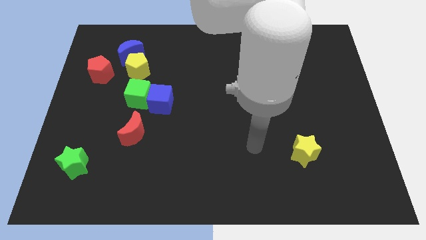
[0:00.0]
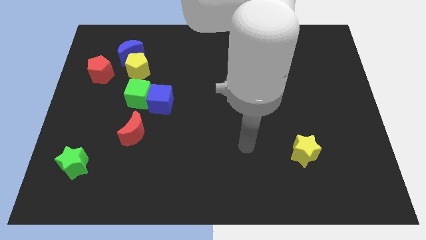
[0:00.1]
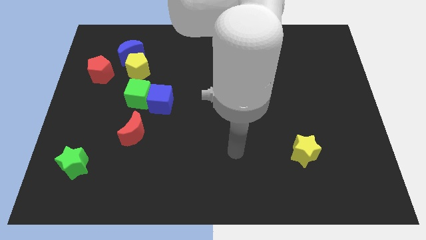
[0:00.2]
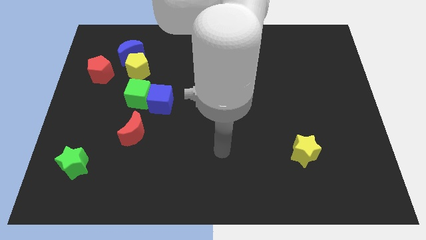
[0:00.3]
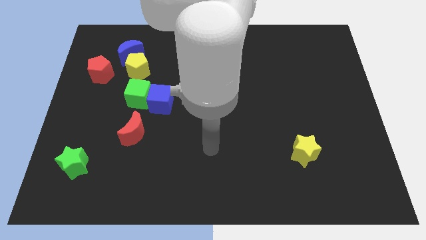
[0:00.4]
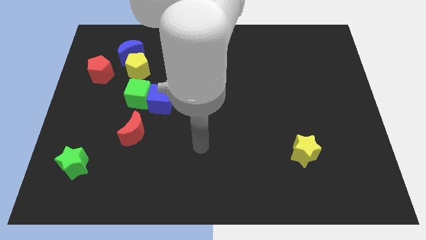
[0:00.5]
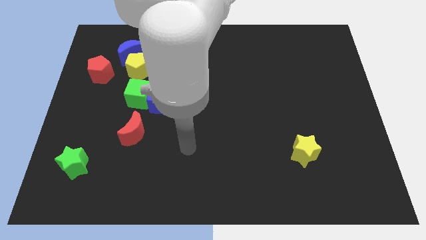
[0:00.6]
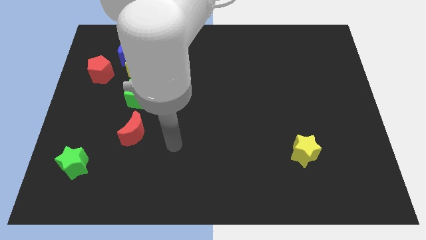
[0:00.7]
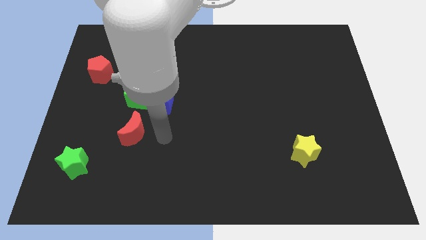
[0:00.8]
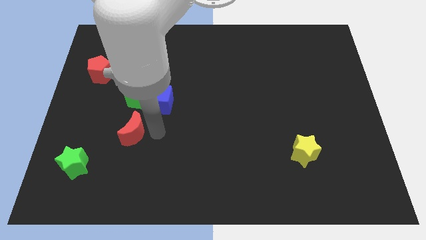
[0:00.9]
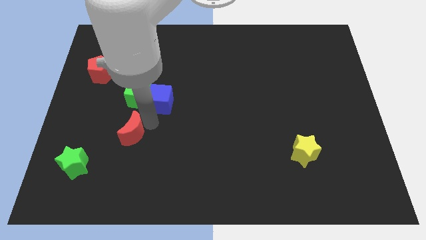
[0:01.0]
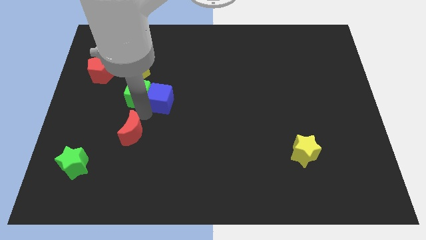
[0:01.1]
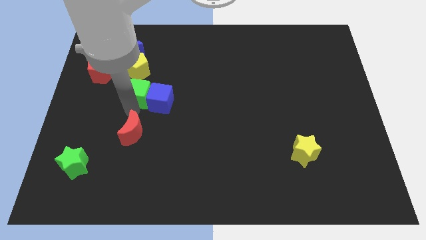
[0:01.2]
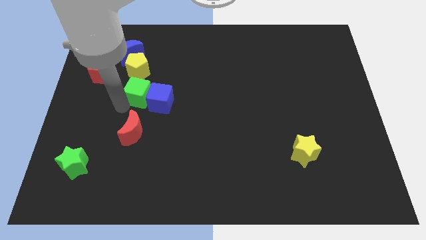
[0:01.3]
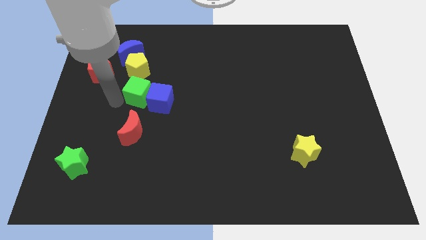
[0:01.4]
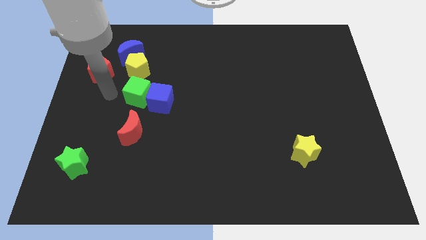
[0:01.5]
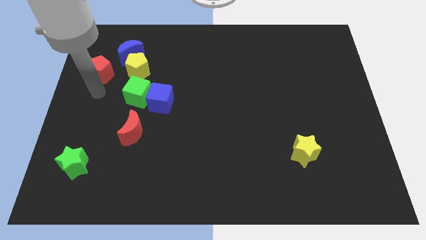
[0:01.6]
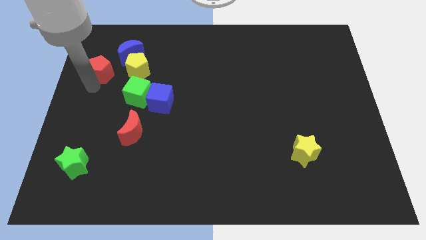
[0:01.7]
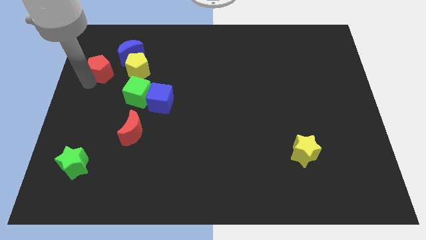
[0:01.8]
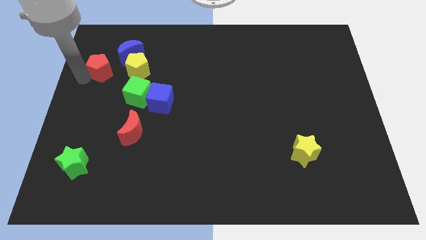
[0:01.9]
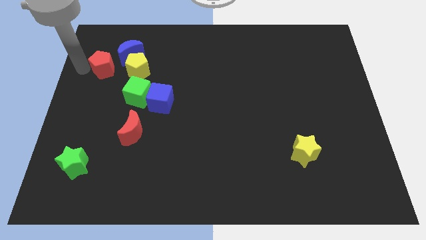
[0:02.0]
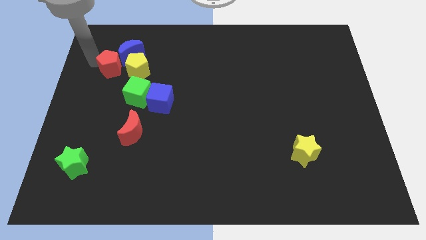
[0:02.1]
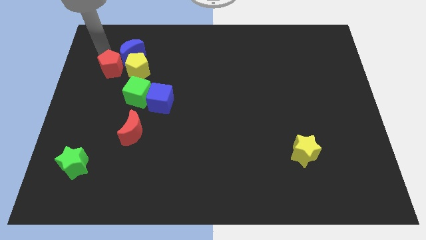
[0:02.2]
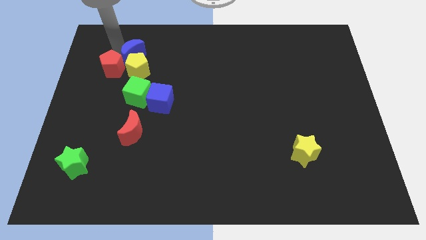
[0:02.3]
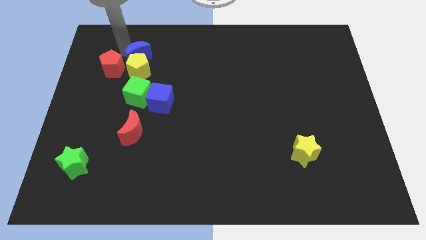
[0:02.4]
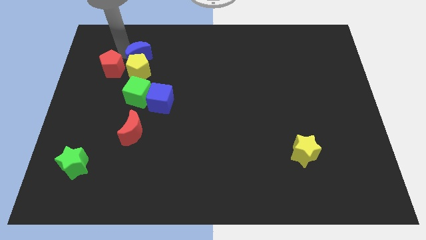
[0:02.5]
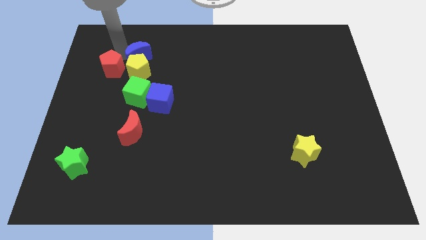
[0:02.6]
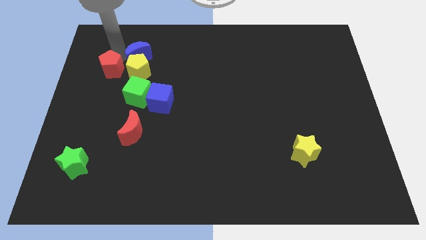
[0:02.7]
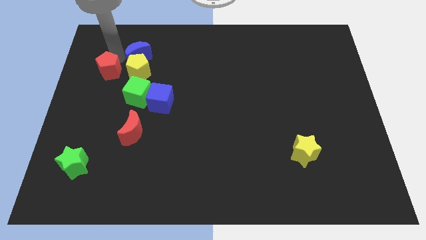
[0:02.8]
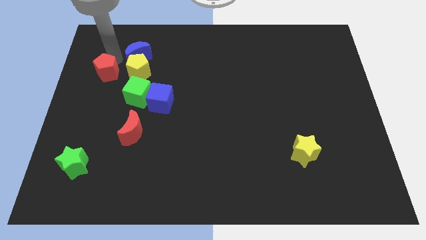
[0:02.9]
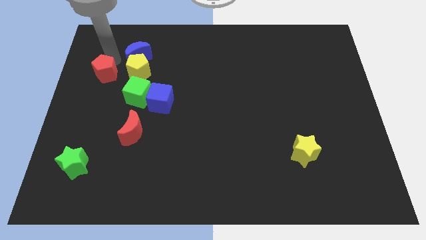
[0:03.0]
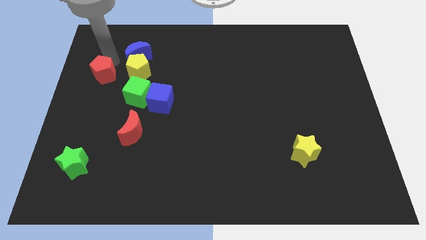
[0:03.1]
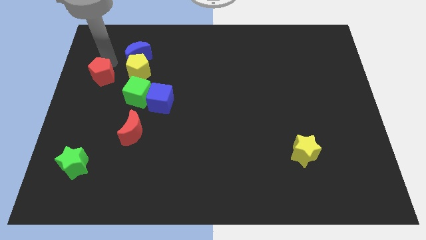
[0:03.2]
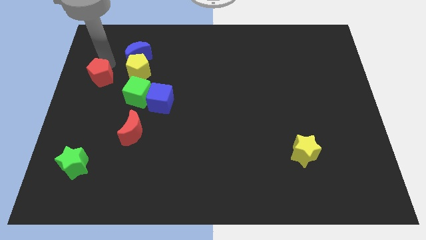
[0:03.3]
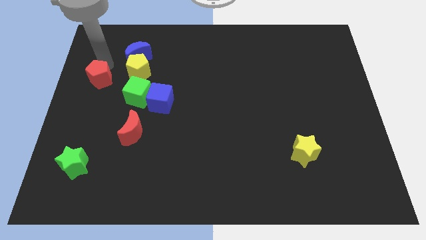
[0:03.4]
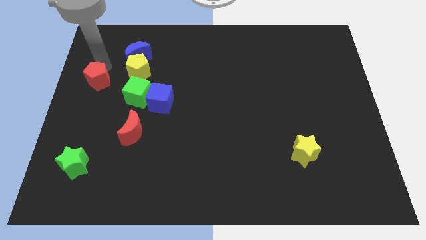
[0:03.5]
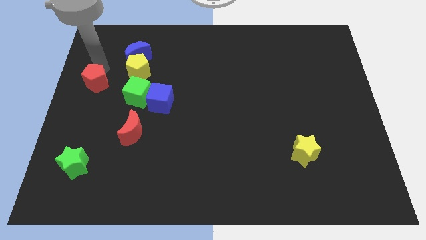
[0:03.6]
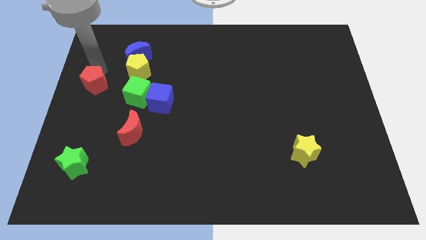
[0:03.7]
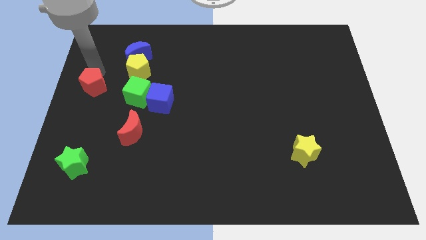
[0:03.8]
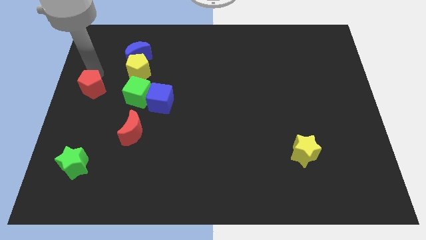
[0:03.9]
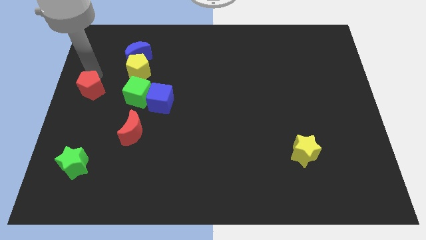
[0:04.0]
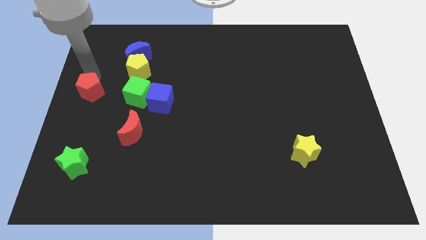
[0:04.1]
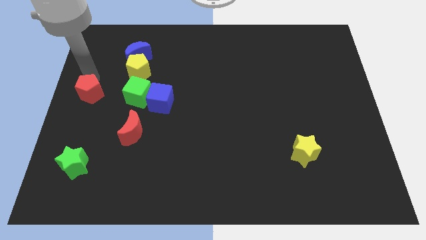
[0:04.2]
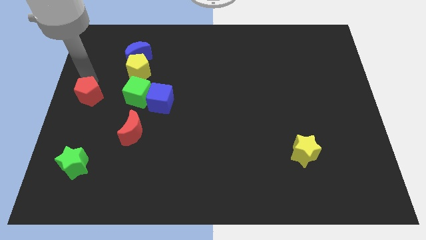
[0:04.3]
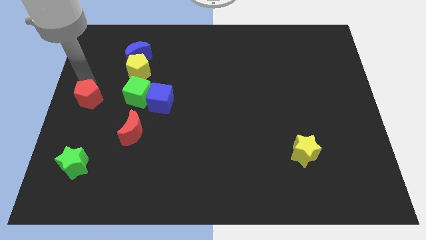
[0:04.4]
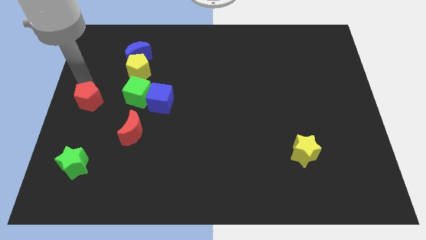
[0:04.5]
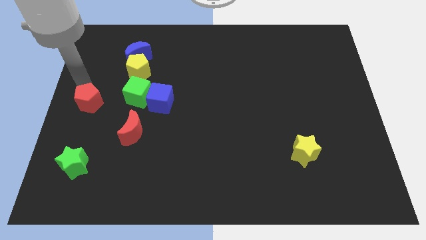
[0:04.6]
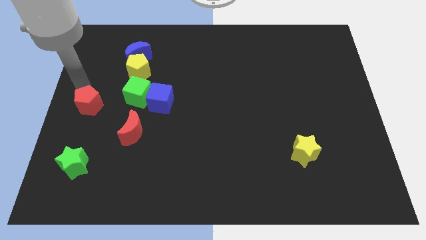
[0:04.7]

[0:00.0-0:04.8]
put the red pentagon to the top of the green star

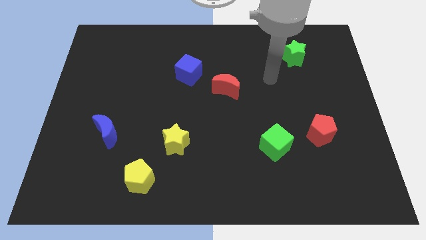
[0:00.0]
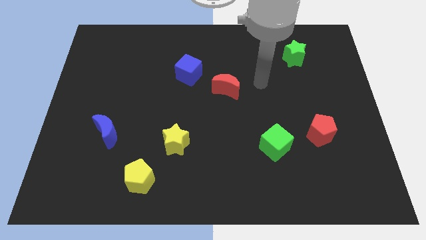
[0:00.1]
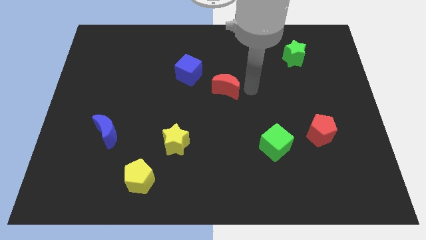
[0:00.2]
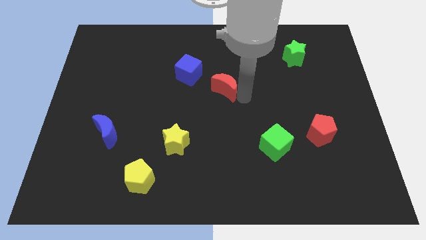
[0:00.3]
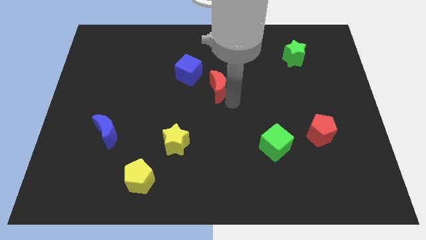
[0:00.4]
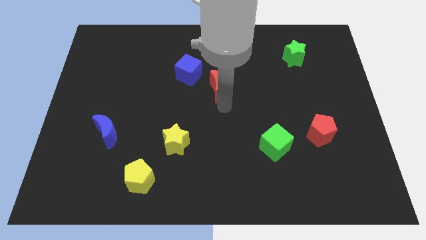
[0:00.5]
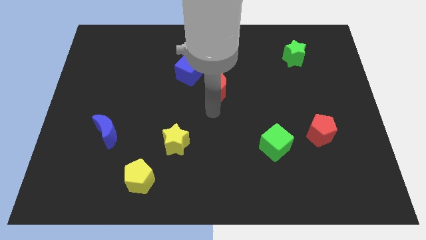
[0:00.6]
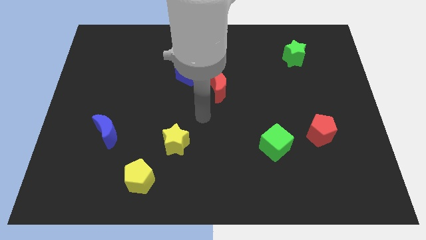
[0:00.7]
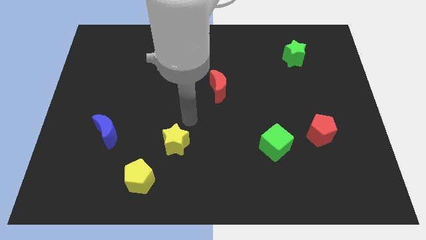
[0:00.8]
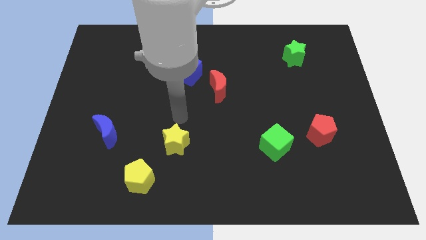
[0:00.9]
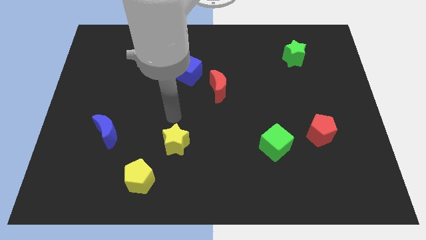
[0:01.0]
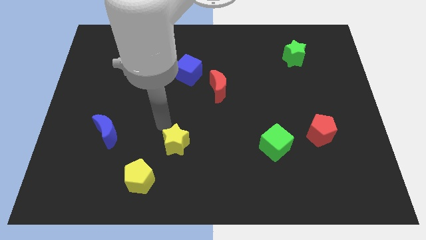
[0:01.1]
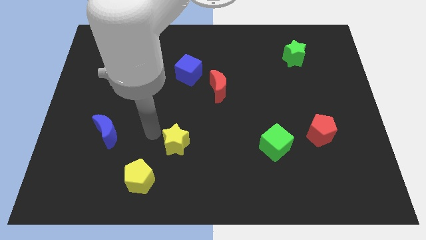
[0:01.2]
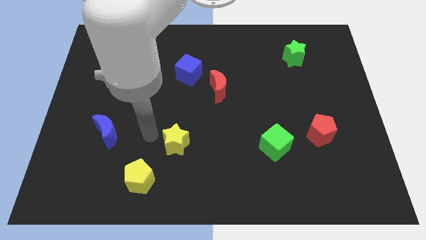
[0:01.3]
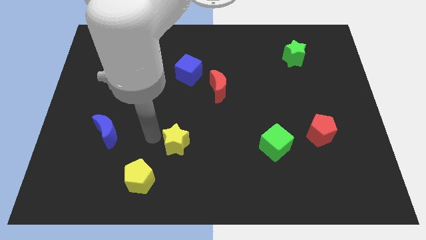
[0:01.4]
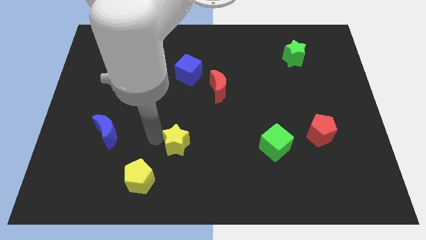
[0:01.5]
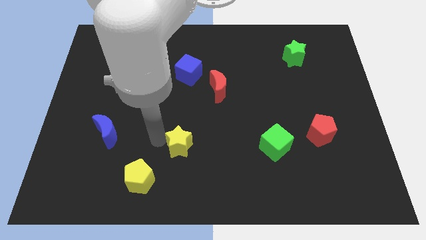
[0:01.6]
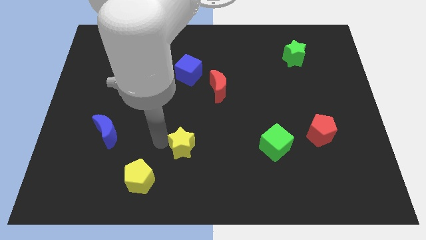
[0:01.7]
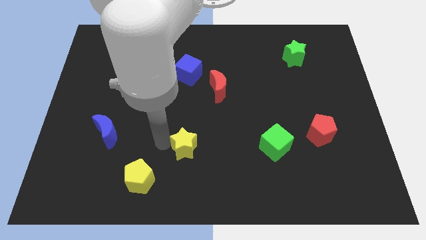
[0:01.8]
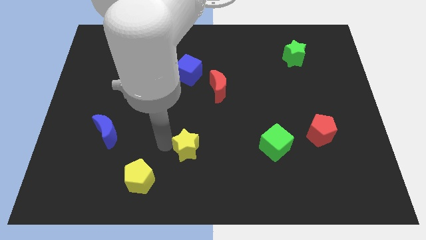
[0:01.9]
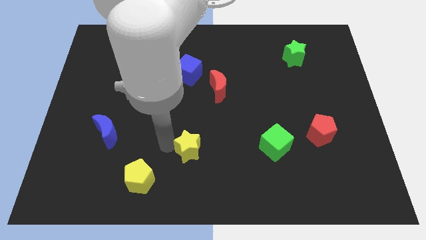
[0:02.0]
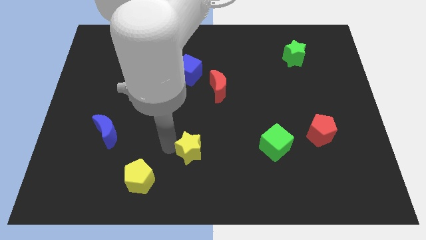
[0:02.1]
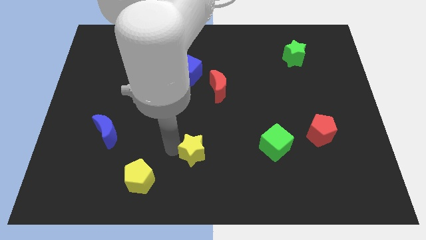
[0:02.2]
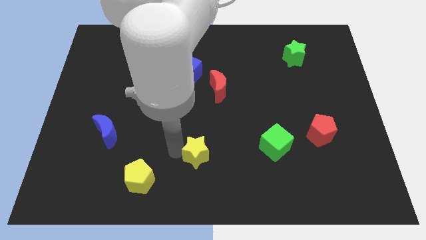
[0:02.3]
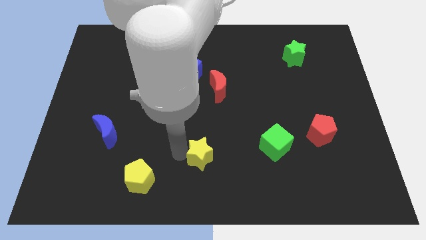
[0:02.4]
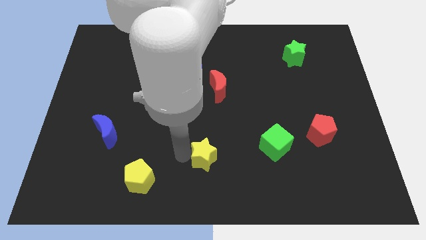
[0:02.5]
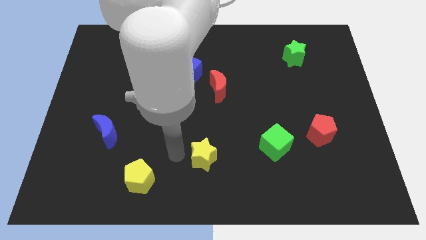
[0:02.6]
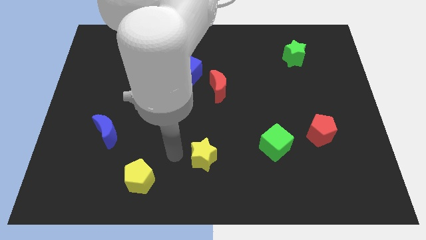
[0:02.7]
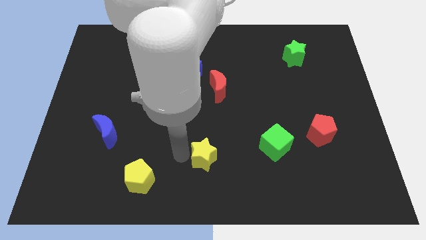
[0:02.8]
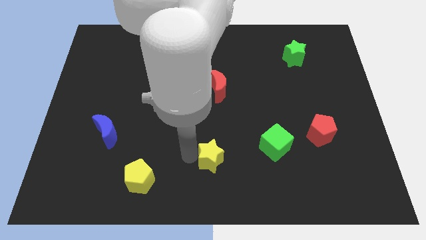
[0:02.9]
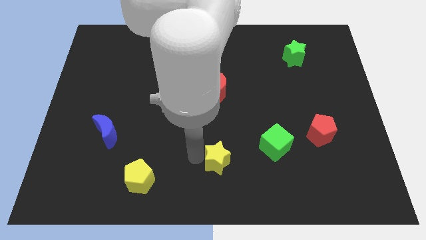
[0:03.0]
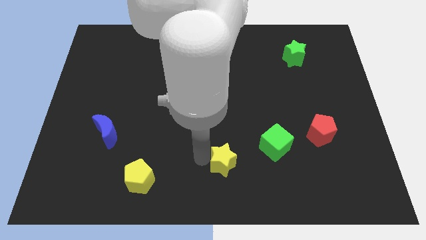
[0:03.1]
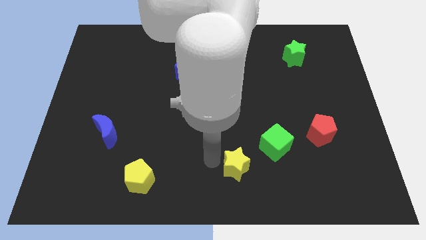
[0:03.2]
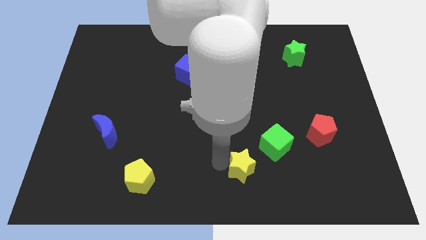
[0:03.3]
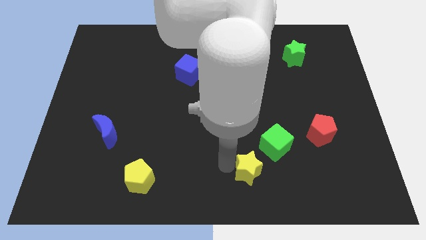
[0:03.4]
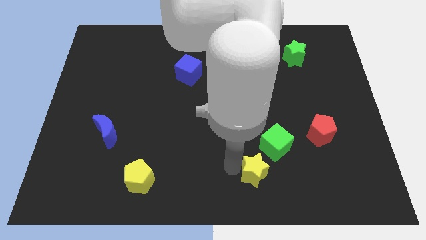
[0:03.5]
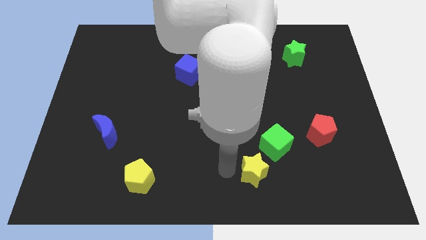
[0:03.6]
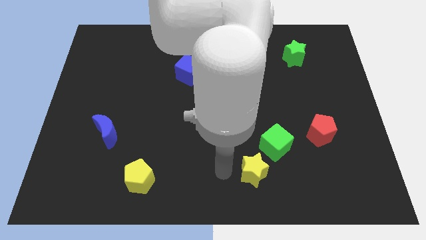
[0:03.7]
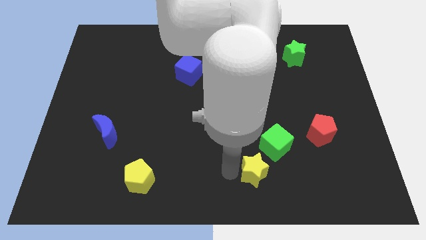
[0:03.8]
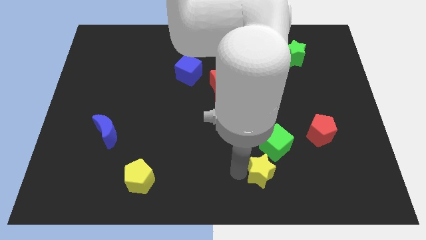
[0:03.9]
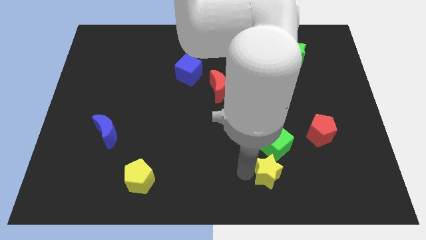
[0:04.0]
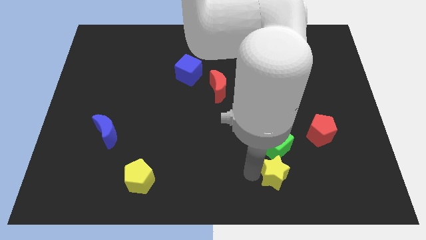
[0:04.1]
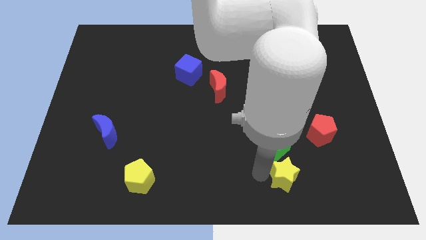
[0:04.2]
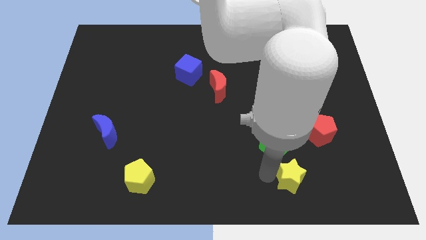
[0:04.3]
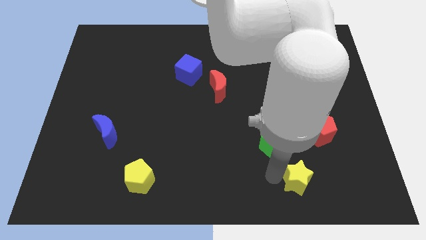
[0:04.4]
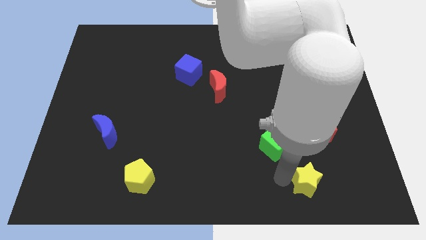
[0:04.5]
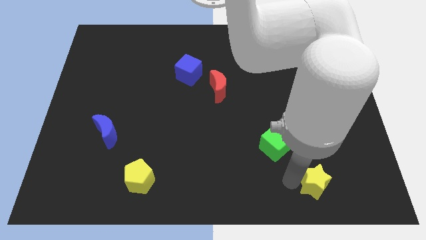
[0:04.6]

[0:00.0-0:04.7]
move the yellow star to the bottom of the red pentagon
